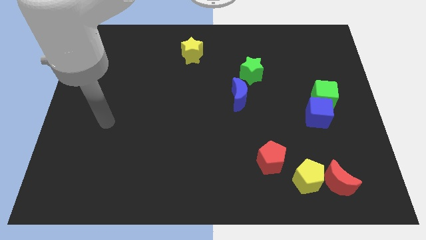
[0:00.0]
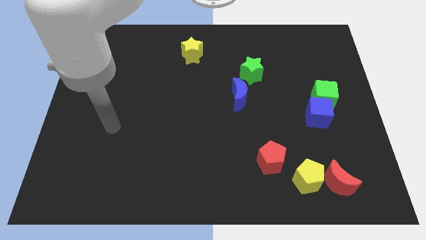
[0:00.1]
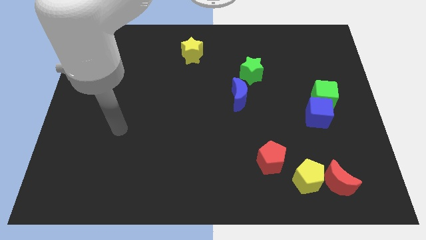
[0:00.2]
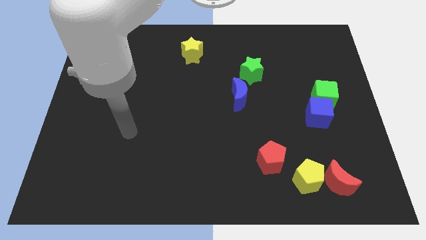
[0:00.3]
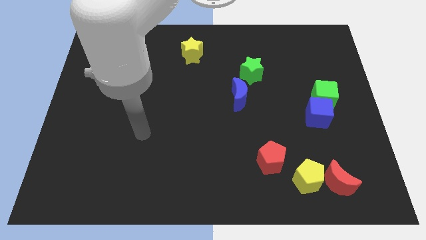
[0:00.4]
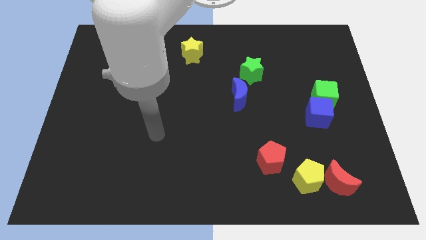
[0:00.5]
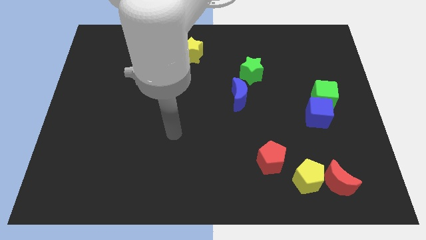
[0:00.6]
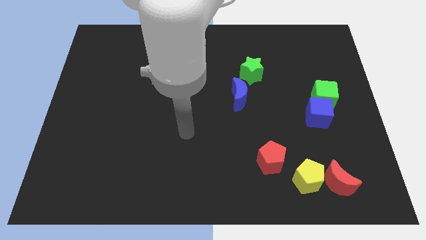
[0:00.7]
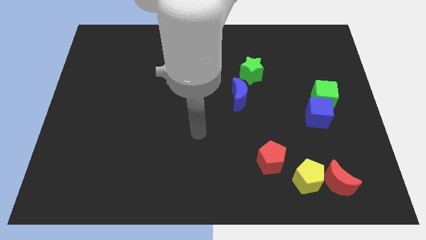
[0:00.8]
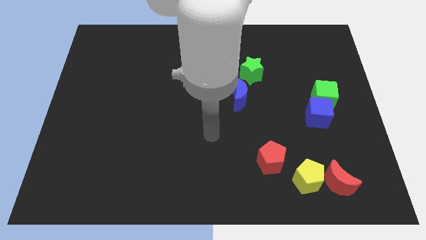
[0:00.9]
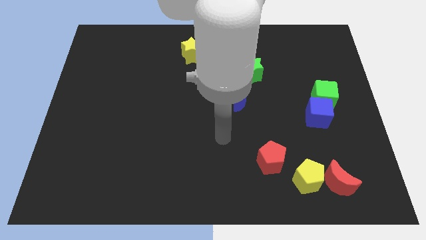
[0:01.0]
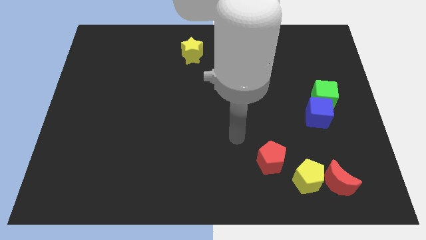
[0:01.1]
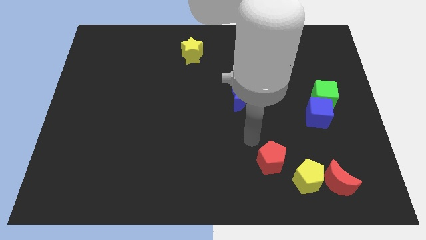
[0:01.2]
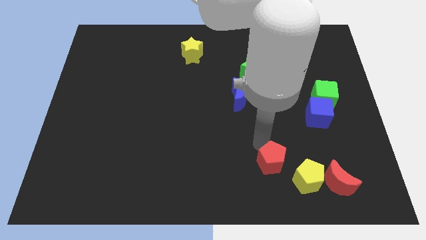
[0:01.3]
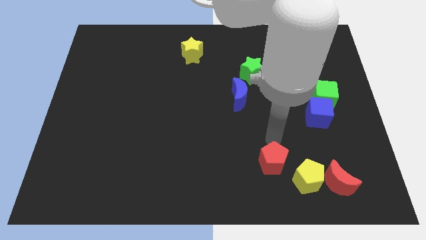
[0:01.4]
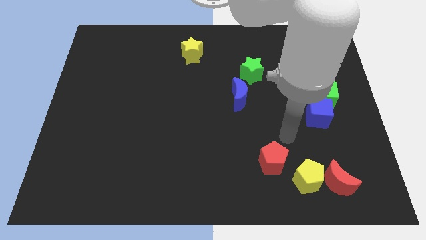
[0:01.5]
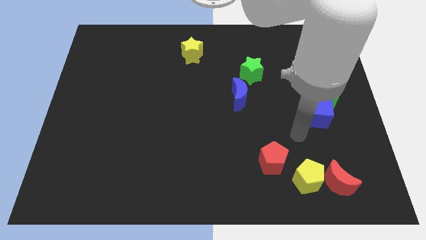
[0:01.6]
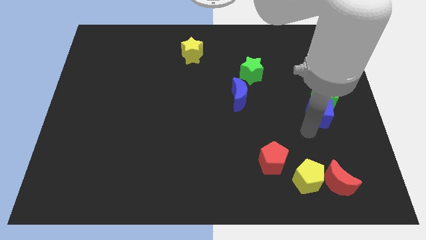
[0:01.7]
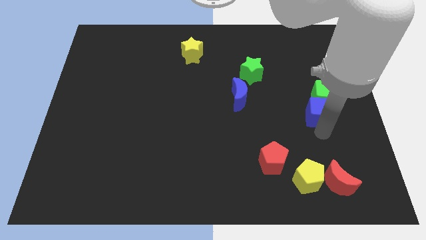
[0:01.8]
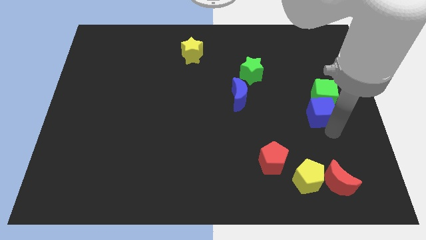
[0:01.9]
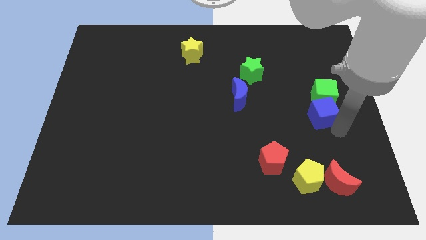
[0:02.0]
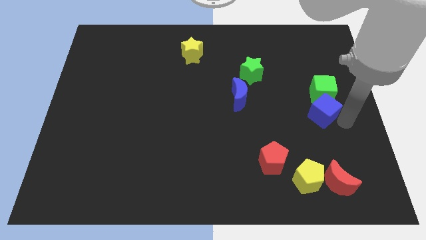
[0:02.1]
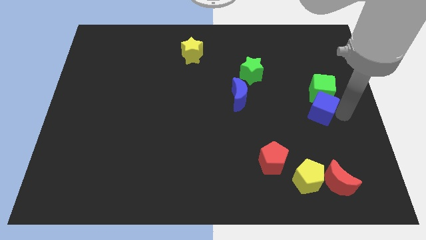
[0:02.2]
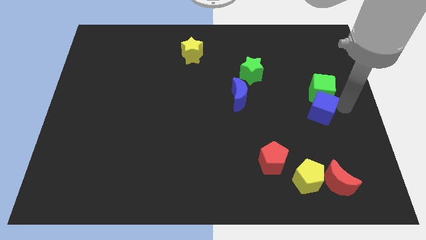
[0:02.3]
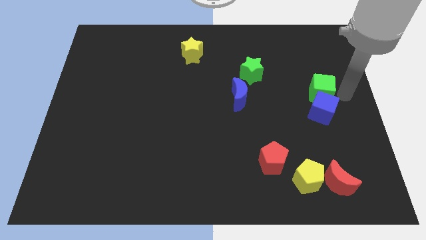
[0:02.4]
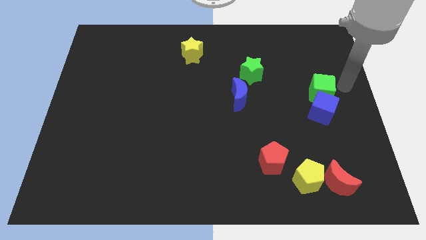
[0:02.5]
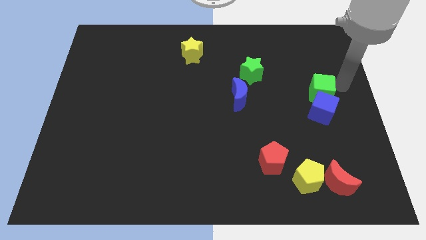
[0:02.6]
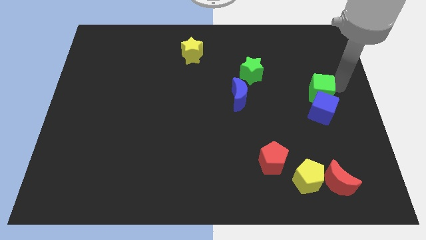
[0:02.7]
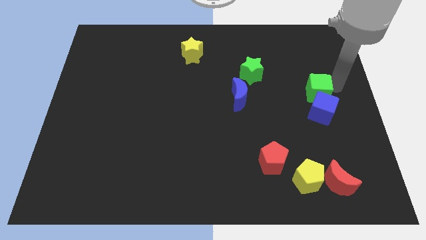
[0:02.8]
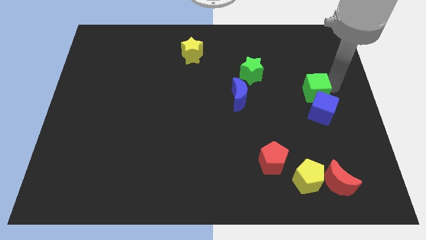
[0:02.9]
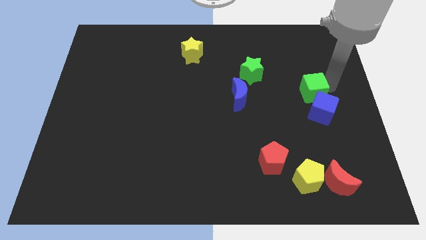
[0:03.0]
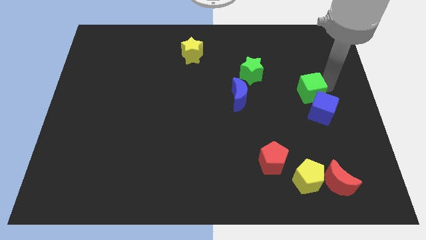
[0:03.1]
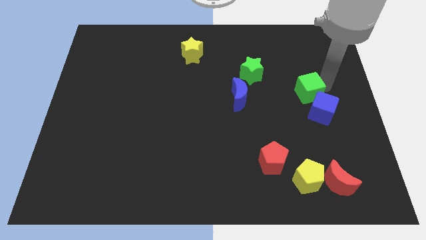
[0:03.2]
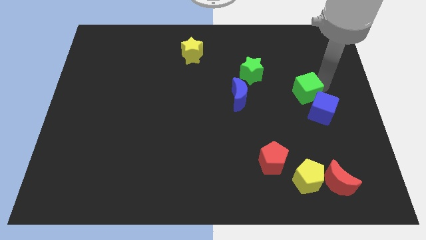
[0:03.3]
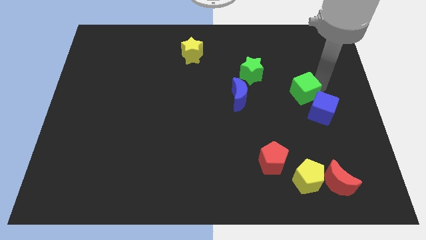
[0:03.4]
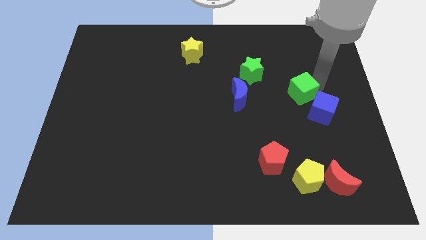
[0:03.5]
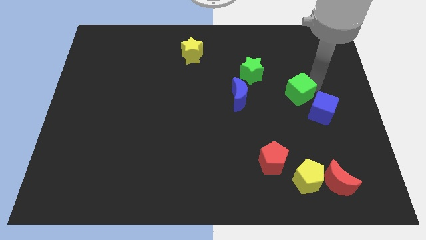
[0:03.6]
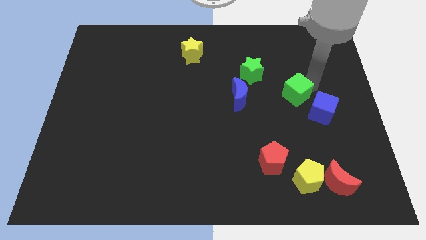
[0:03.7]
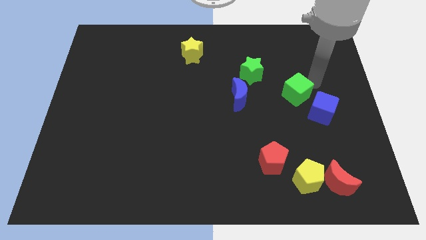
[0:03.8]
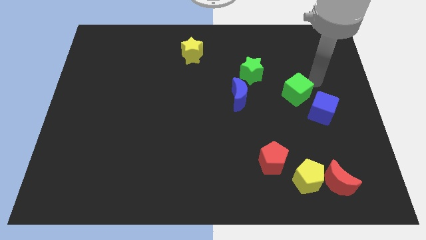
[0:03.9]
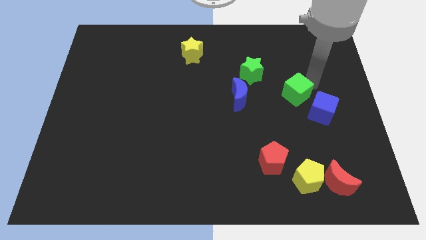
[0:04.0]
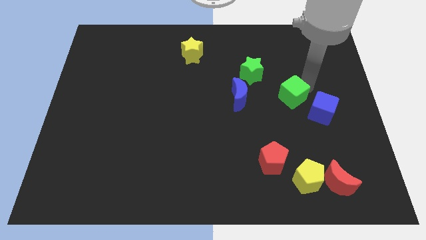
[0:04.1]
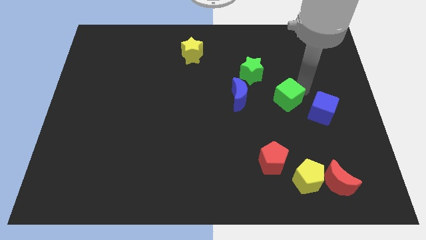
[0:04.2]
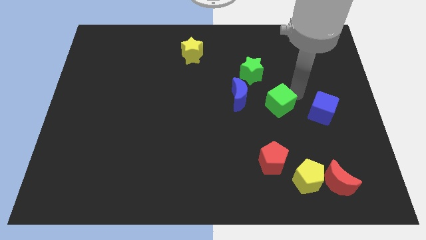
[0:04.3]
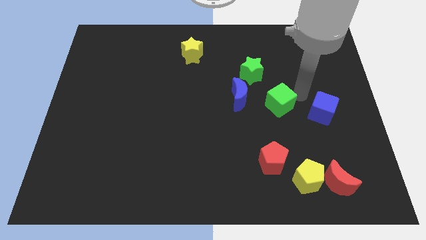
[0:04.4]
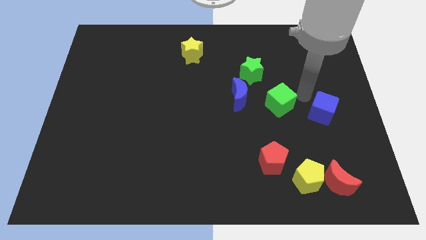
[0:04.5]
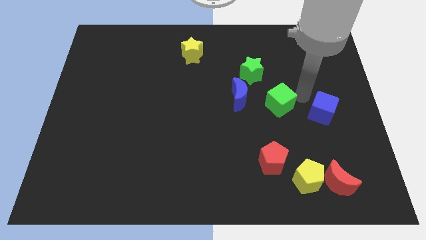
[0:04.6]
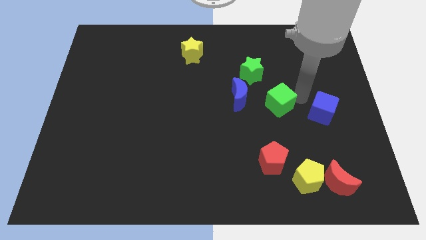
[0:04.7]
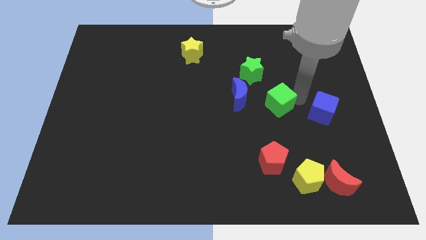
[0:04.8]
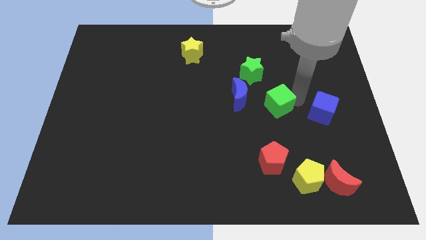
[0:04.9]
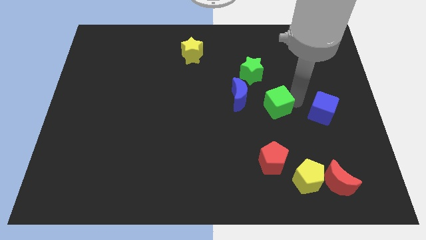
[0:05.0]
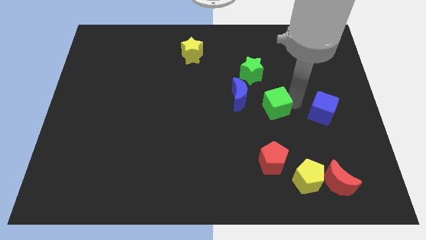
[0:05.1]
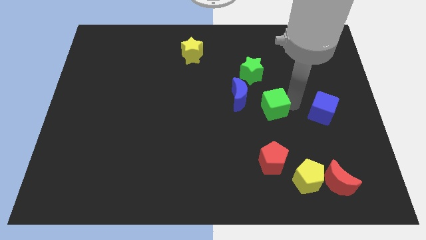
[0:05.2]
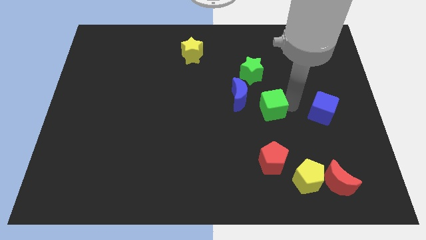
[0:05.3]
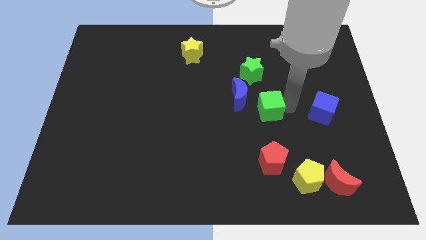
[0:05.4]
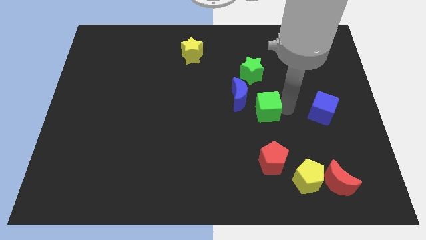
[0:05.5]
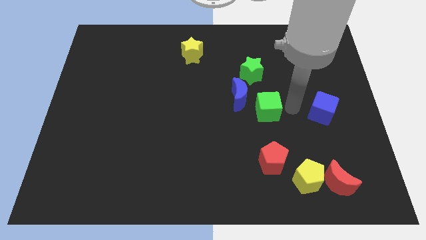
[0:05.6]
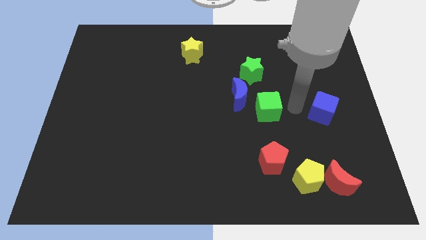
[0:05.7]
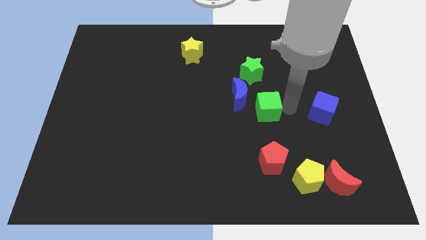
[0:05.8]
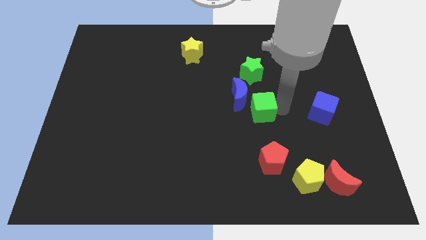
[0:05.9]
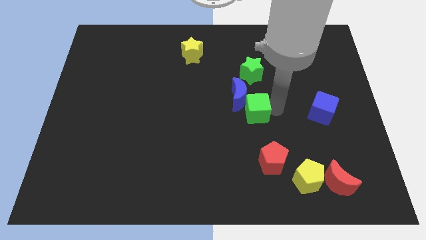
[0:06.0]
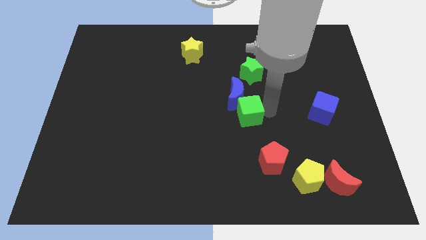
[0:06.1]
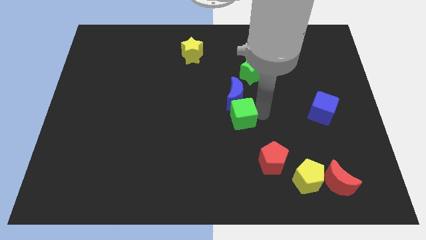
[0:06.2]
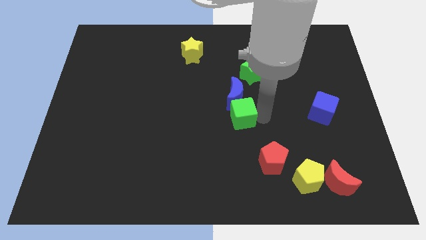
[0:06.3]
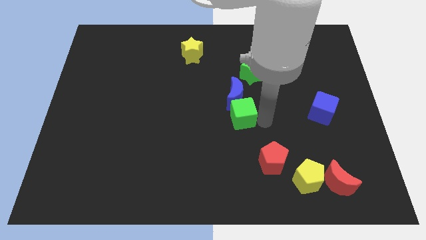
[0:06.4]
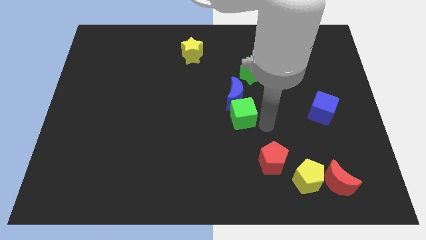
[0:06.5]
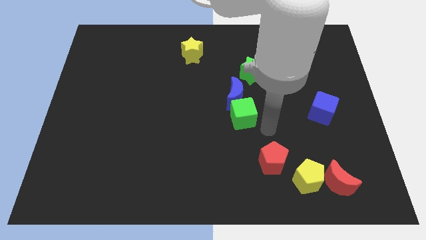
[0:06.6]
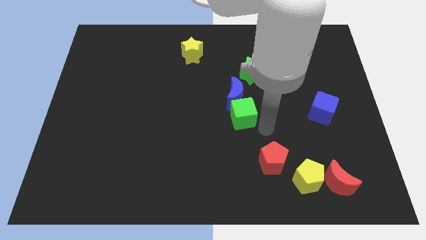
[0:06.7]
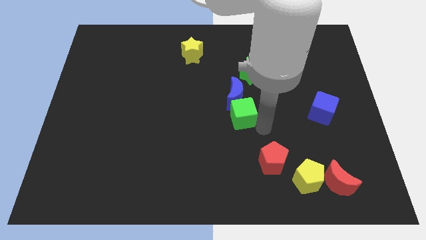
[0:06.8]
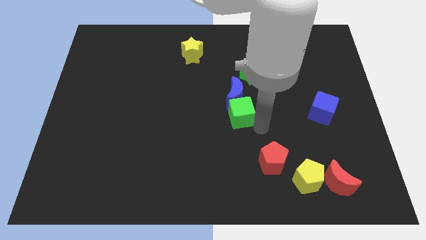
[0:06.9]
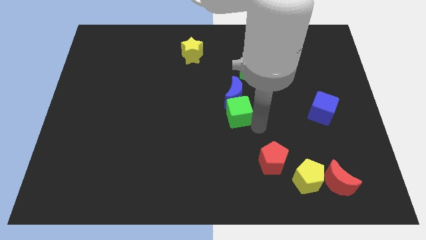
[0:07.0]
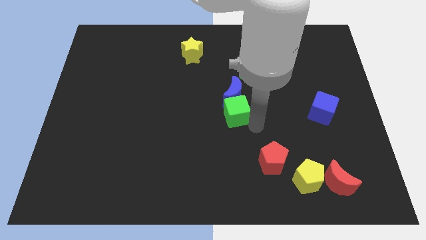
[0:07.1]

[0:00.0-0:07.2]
push the green cube to the left

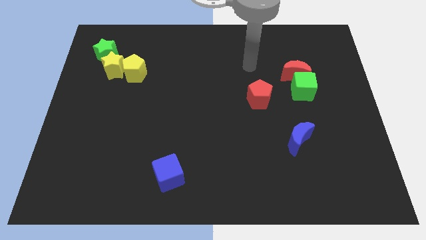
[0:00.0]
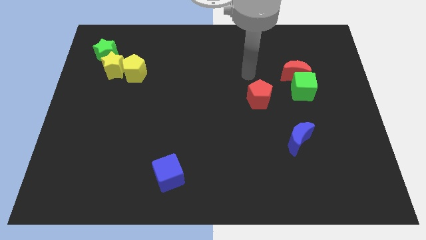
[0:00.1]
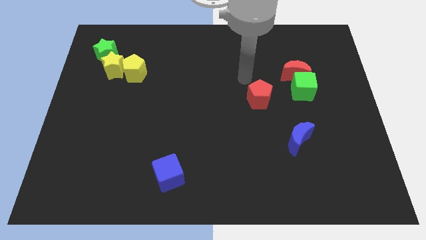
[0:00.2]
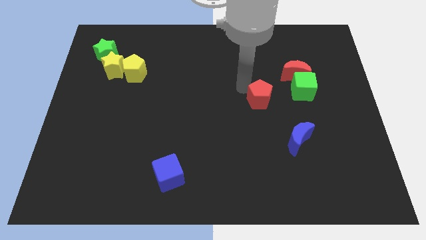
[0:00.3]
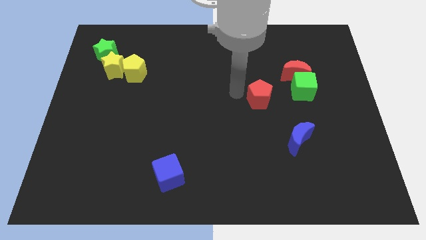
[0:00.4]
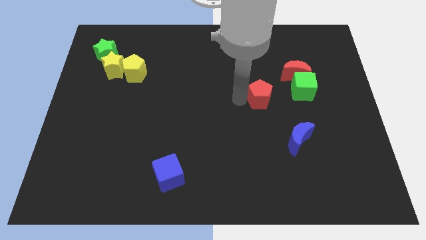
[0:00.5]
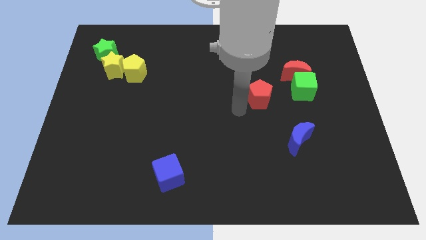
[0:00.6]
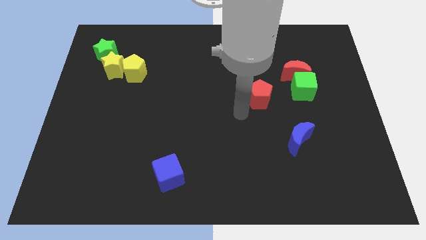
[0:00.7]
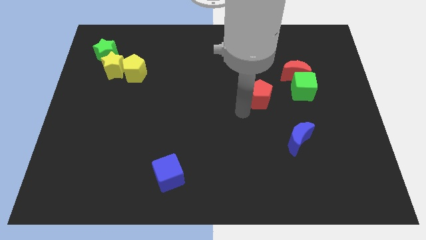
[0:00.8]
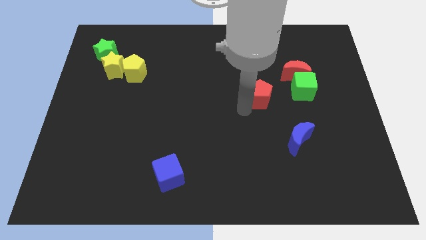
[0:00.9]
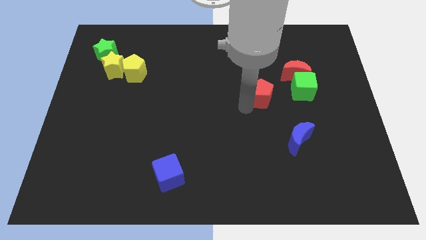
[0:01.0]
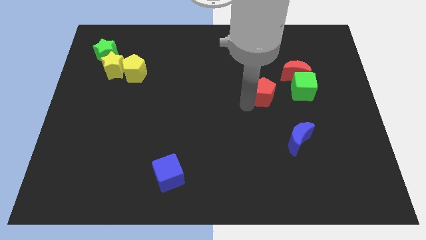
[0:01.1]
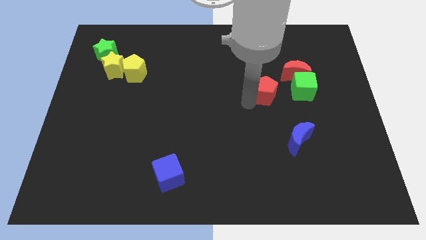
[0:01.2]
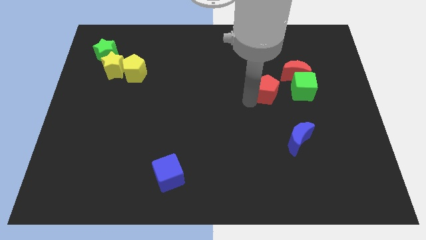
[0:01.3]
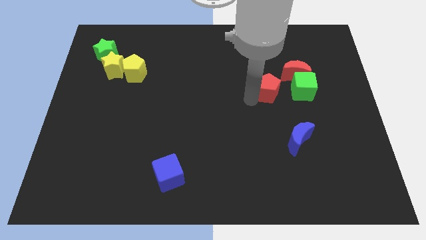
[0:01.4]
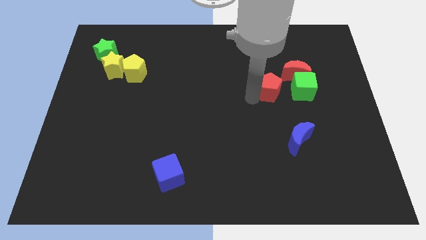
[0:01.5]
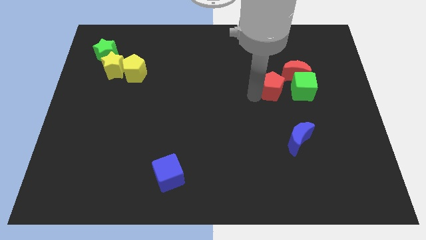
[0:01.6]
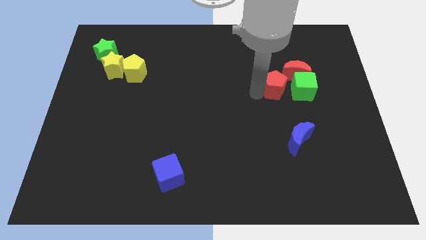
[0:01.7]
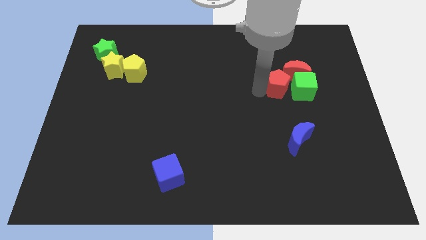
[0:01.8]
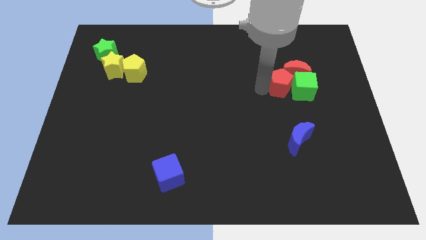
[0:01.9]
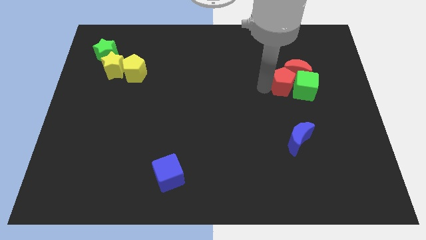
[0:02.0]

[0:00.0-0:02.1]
slide the red pentagon upwards and to the right diagonally somewhat
